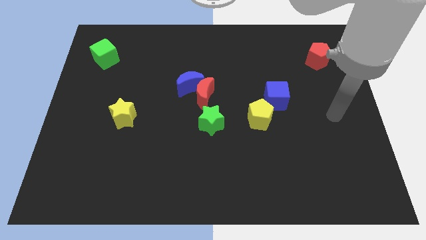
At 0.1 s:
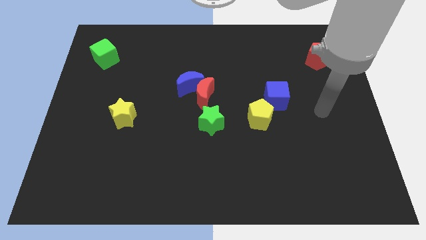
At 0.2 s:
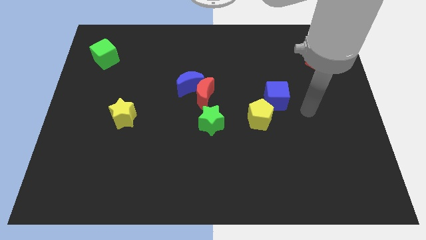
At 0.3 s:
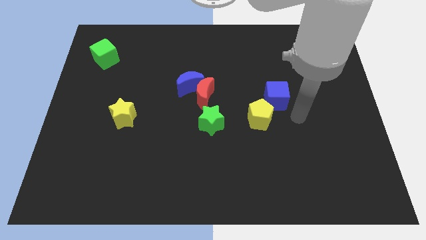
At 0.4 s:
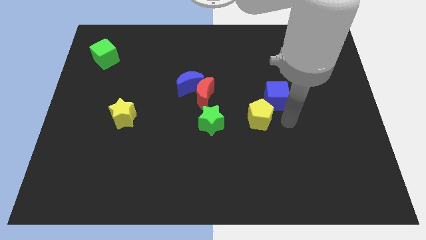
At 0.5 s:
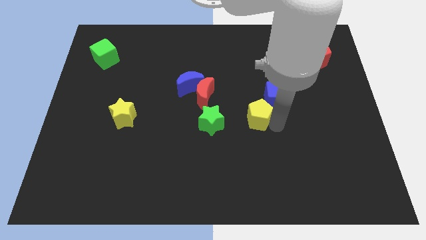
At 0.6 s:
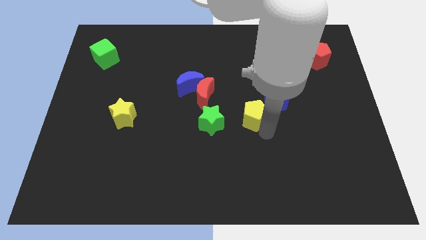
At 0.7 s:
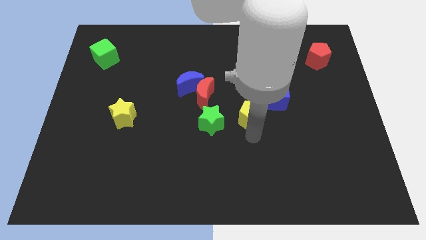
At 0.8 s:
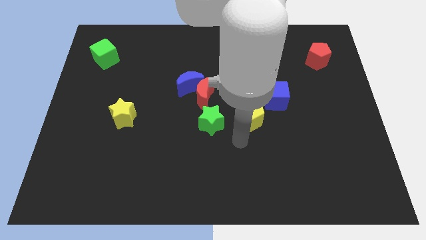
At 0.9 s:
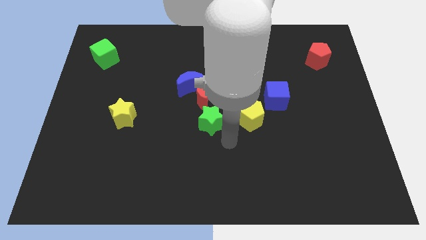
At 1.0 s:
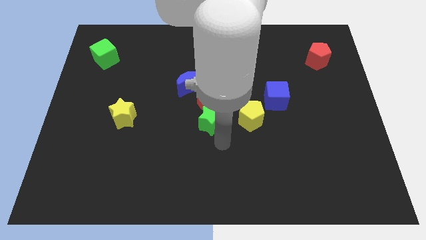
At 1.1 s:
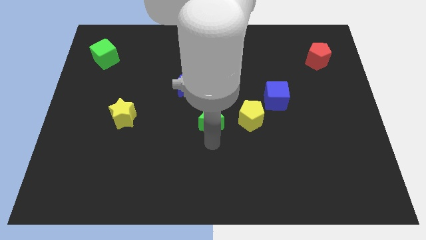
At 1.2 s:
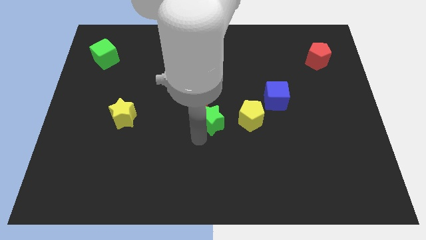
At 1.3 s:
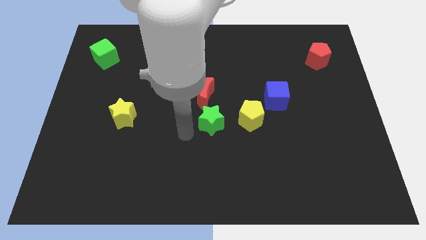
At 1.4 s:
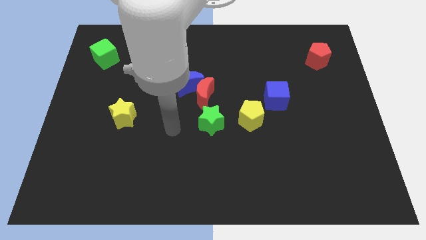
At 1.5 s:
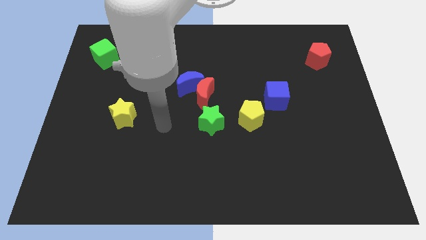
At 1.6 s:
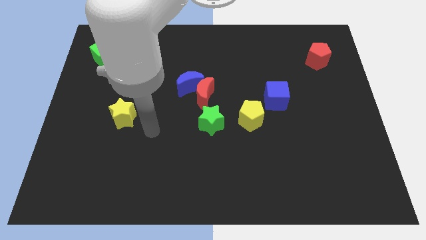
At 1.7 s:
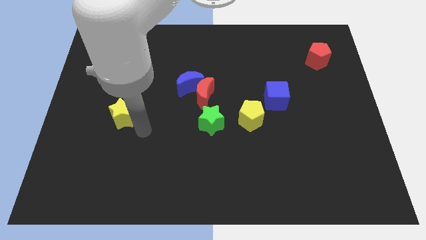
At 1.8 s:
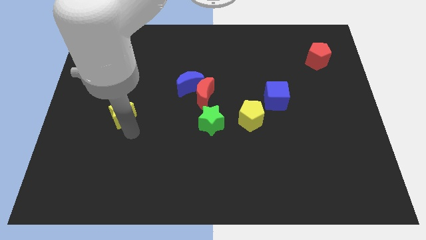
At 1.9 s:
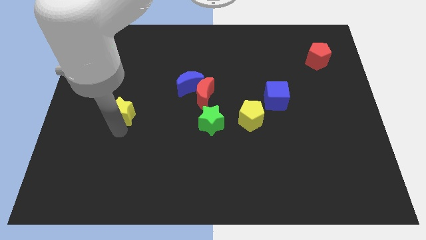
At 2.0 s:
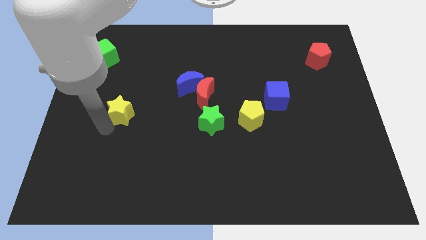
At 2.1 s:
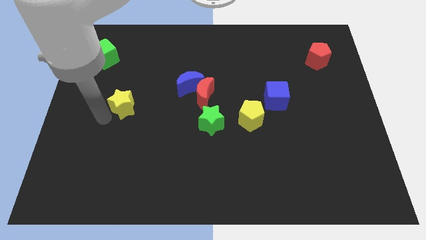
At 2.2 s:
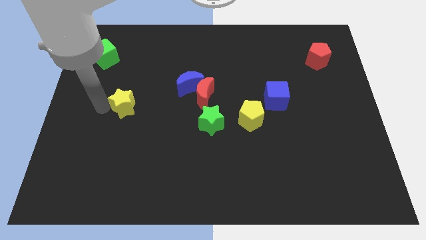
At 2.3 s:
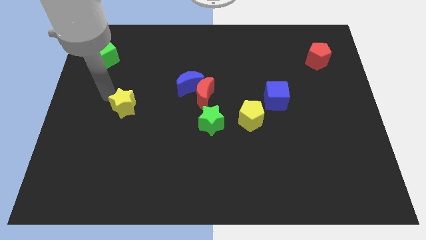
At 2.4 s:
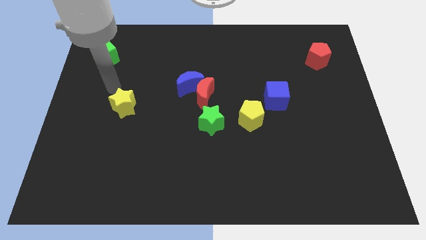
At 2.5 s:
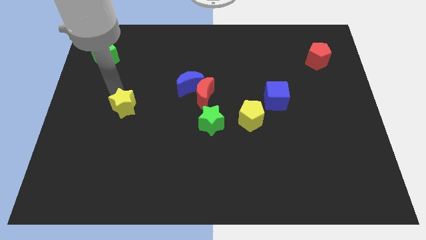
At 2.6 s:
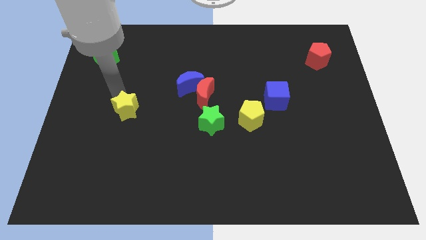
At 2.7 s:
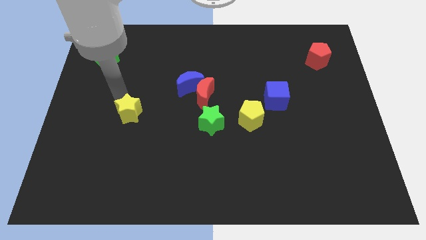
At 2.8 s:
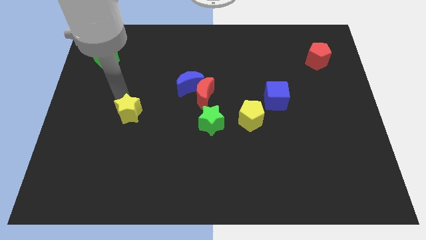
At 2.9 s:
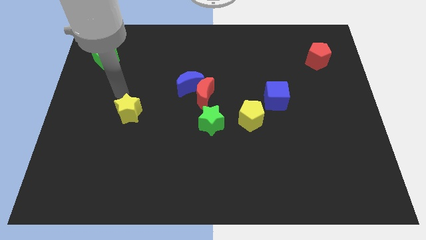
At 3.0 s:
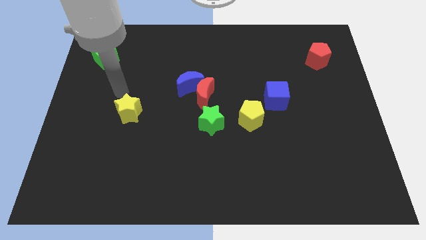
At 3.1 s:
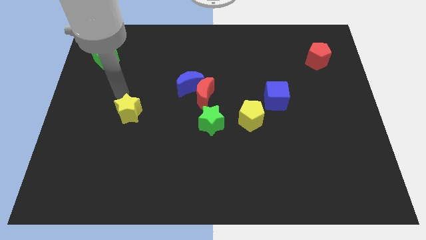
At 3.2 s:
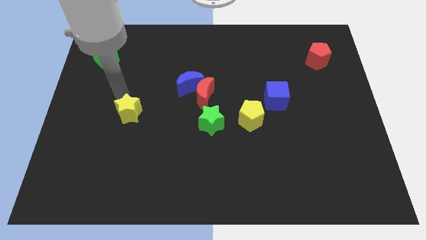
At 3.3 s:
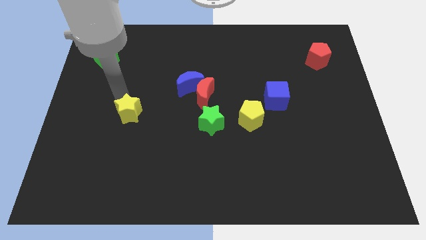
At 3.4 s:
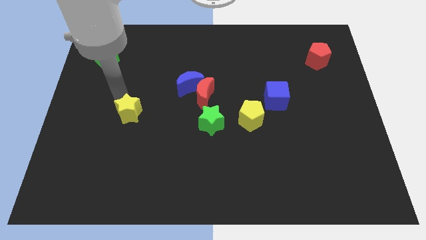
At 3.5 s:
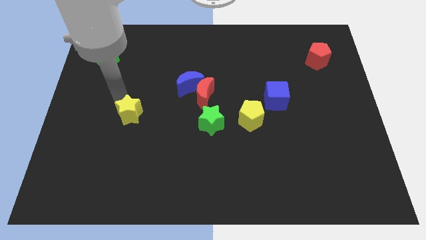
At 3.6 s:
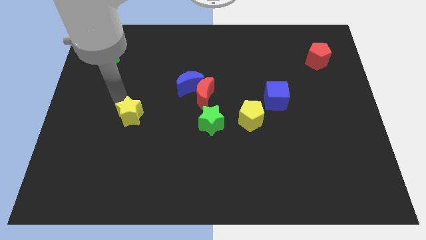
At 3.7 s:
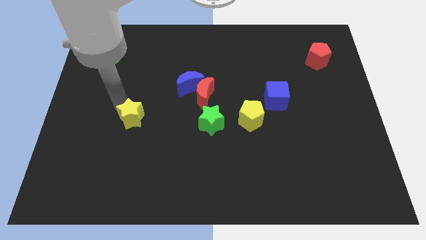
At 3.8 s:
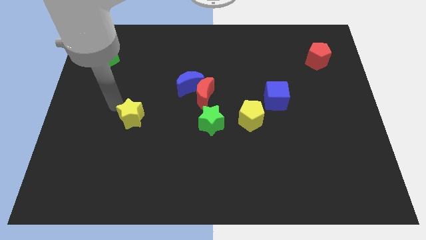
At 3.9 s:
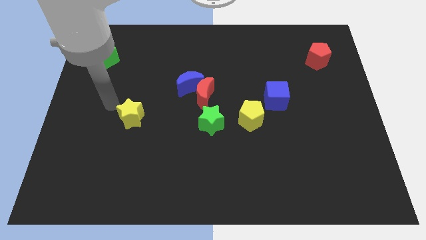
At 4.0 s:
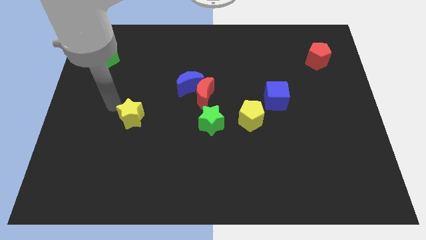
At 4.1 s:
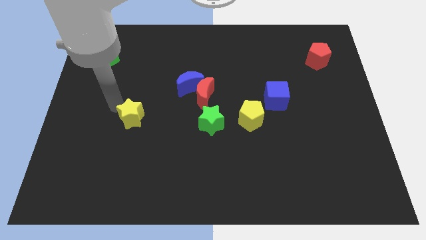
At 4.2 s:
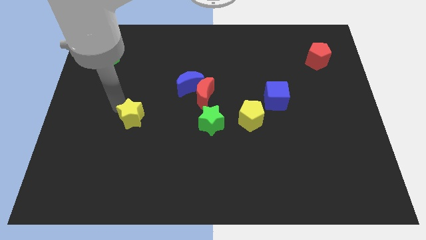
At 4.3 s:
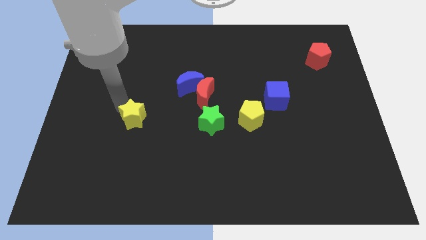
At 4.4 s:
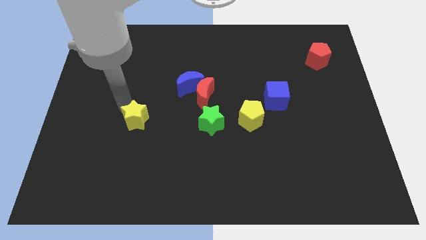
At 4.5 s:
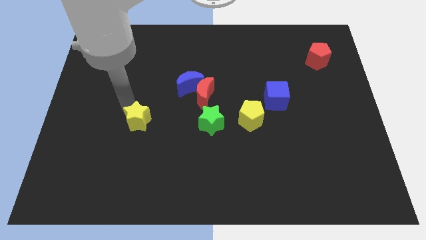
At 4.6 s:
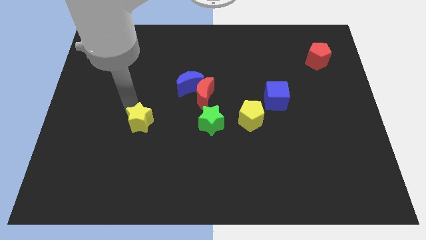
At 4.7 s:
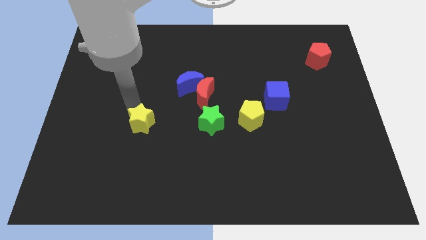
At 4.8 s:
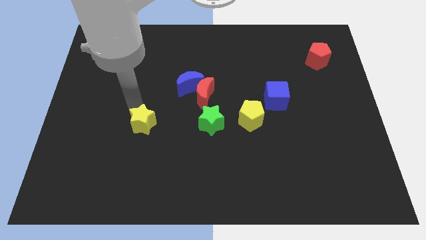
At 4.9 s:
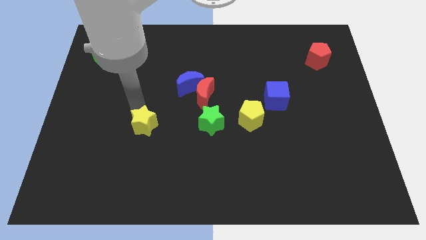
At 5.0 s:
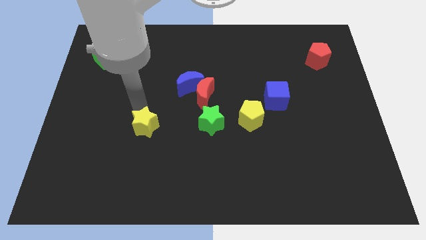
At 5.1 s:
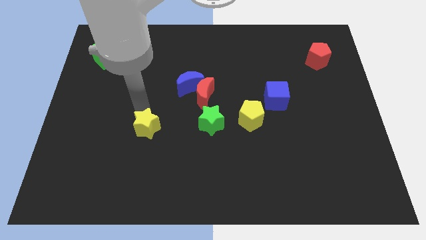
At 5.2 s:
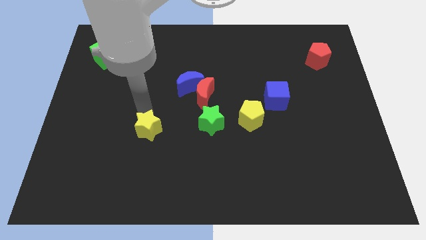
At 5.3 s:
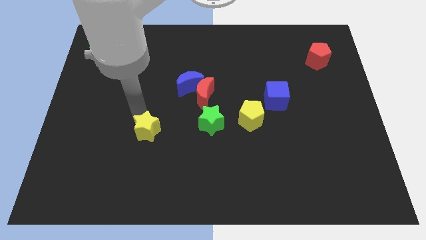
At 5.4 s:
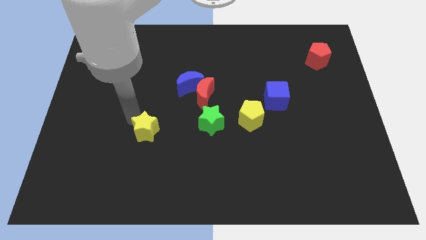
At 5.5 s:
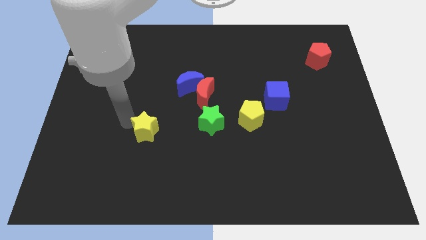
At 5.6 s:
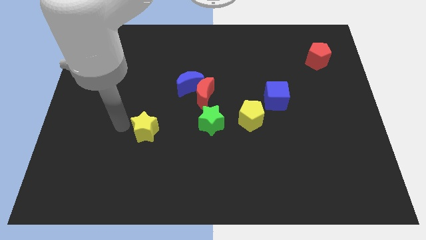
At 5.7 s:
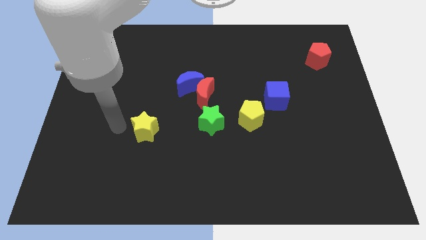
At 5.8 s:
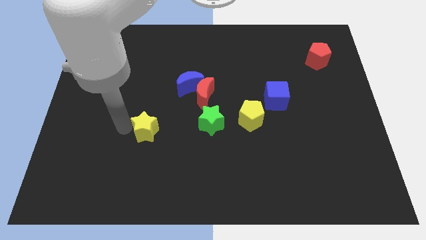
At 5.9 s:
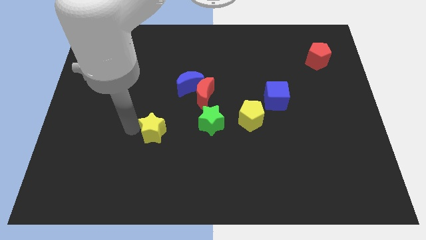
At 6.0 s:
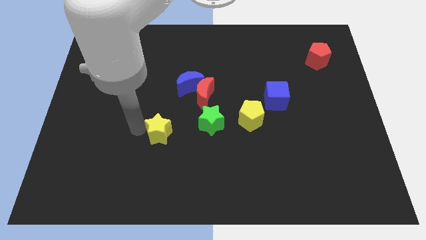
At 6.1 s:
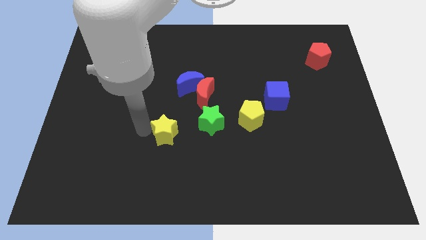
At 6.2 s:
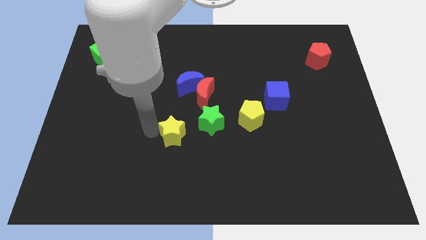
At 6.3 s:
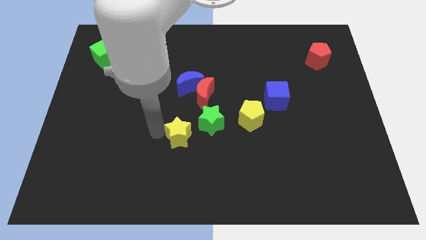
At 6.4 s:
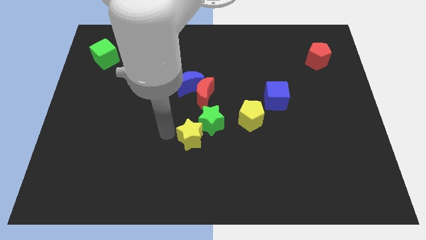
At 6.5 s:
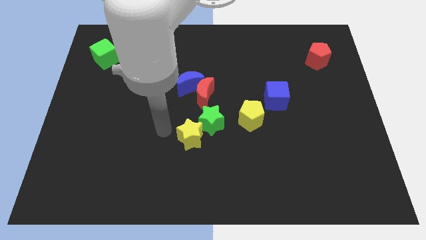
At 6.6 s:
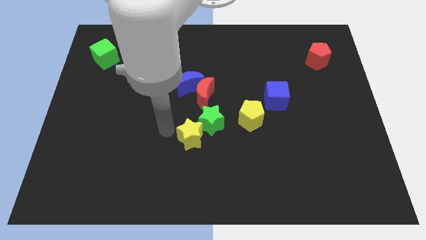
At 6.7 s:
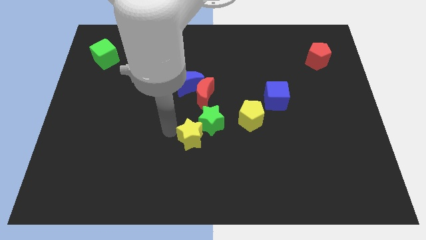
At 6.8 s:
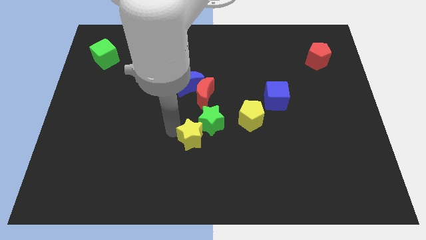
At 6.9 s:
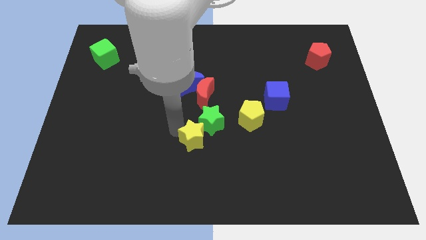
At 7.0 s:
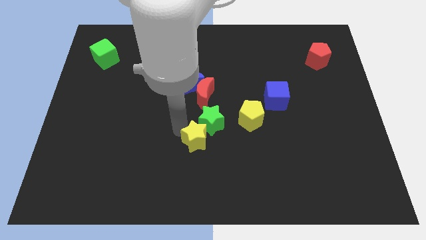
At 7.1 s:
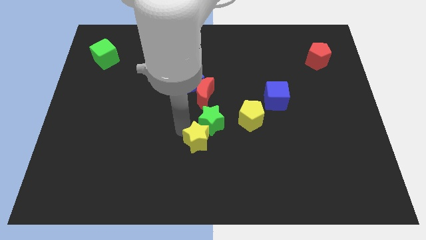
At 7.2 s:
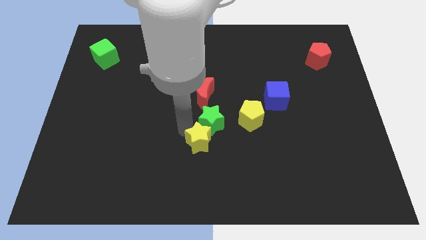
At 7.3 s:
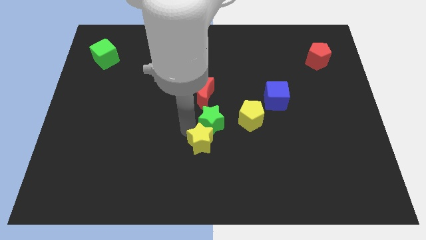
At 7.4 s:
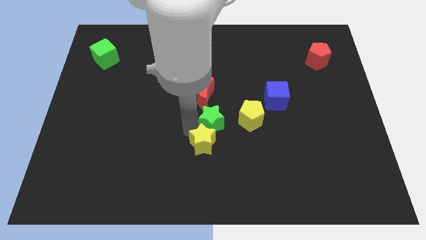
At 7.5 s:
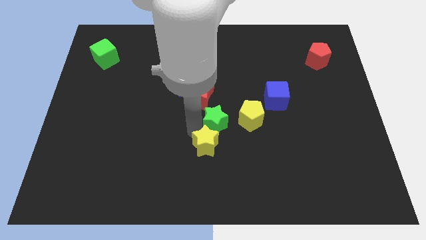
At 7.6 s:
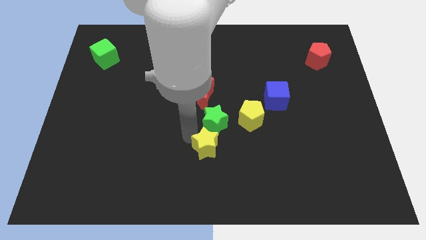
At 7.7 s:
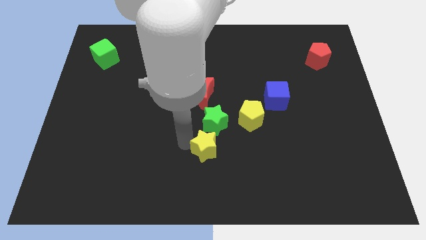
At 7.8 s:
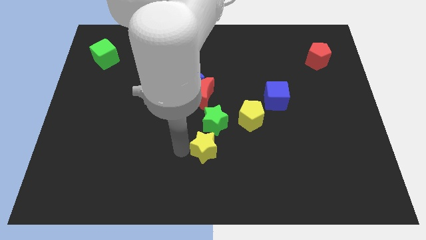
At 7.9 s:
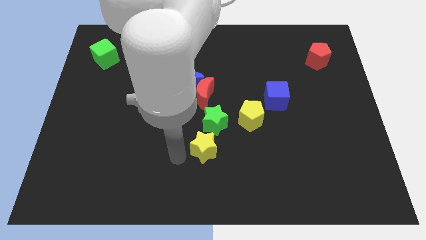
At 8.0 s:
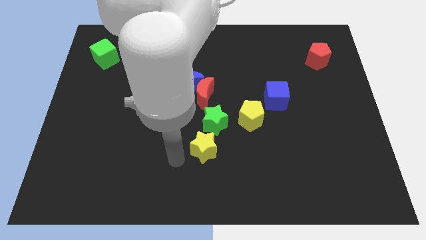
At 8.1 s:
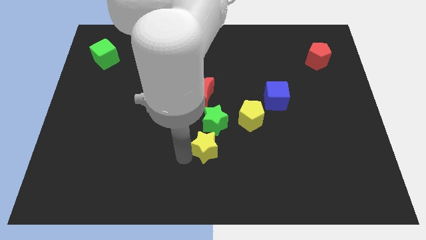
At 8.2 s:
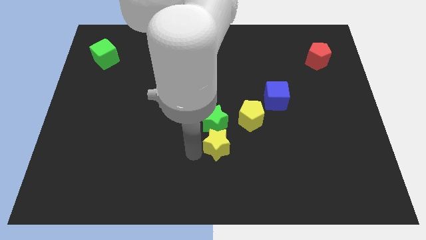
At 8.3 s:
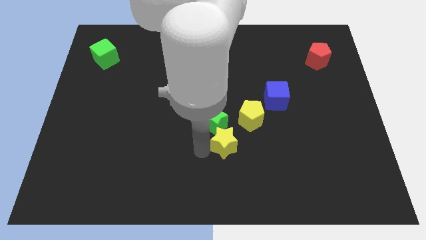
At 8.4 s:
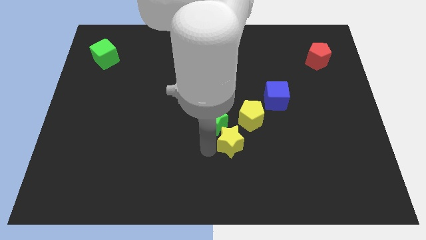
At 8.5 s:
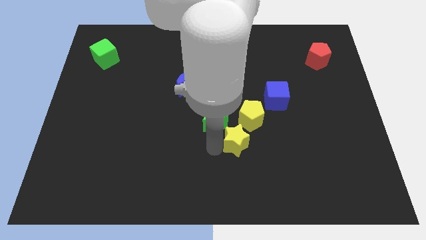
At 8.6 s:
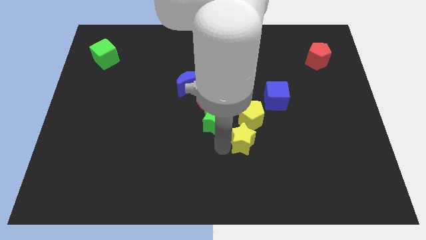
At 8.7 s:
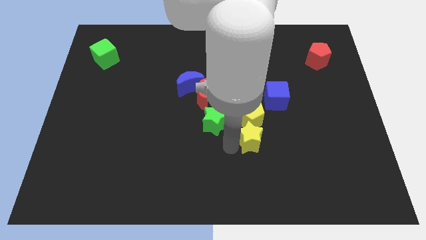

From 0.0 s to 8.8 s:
push the yellow star close to the yellow pentagon
